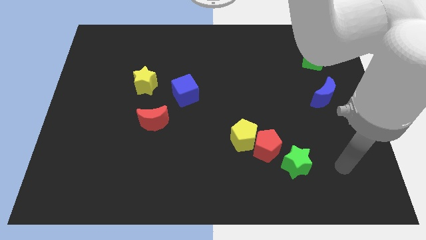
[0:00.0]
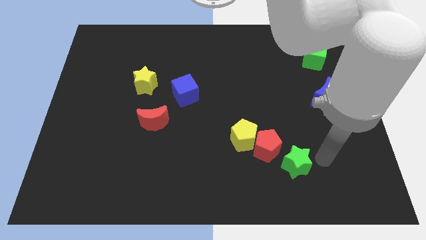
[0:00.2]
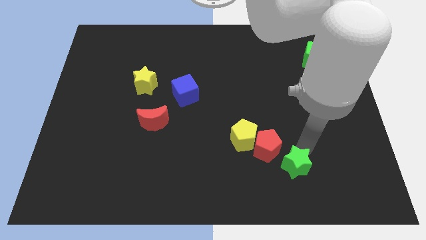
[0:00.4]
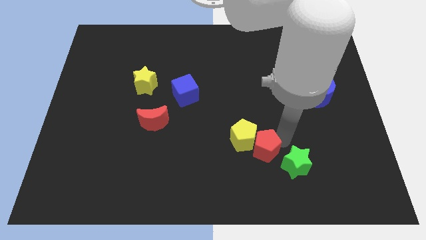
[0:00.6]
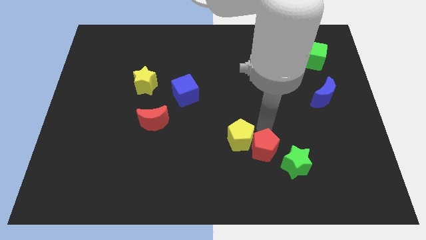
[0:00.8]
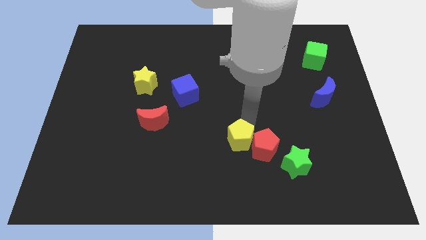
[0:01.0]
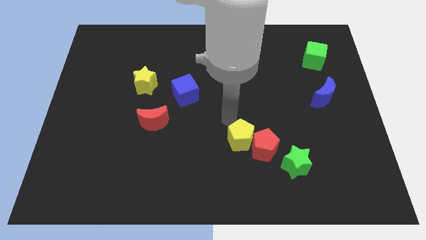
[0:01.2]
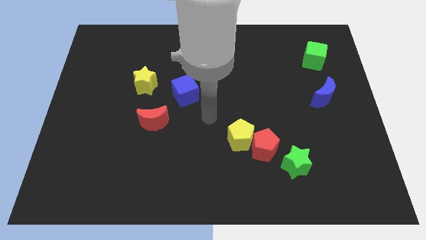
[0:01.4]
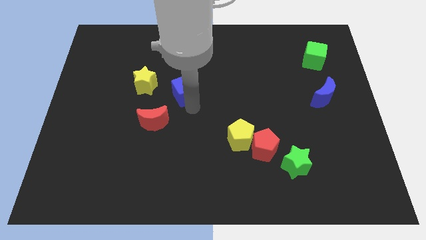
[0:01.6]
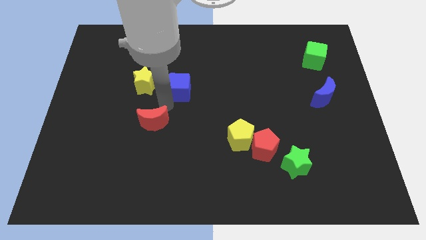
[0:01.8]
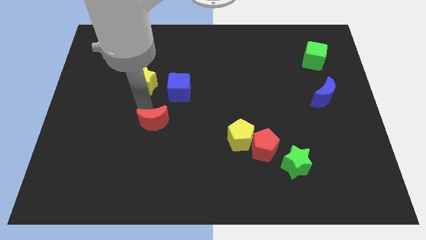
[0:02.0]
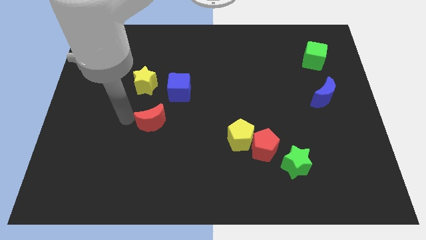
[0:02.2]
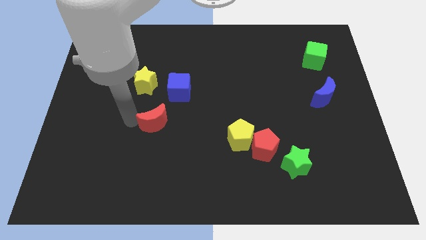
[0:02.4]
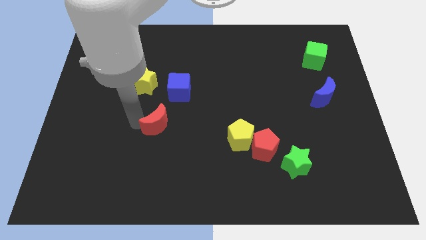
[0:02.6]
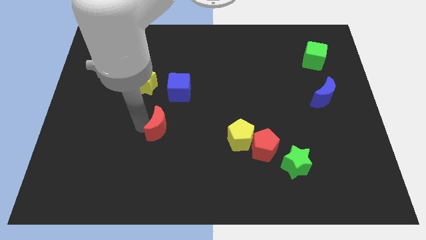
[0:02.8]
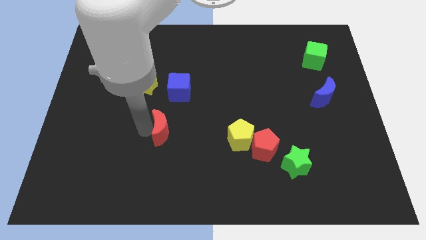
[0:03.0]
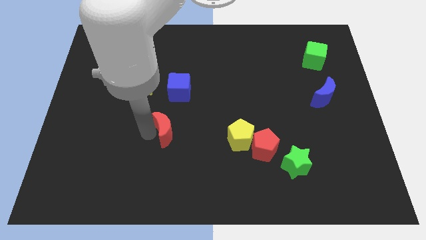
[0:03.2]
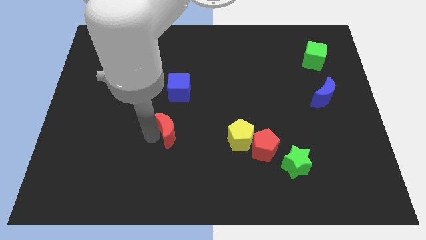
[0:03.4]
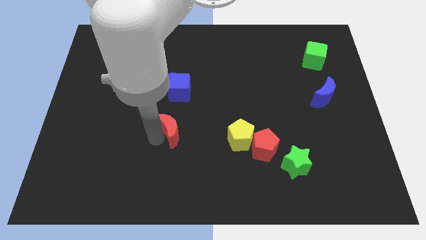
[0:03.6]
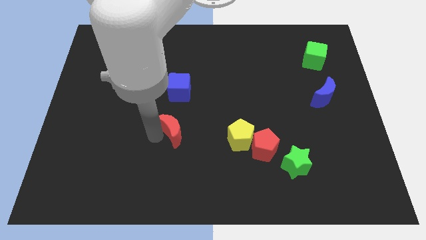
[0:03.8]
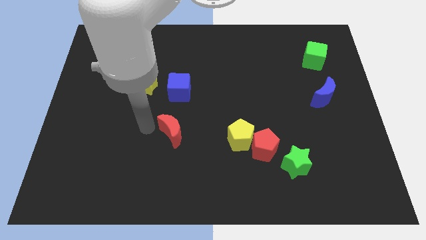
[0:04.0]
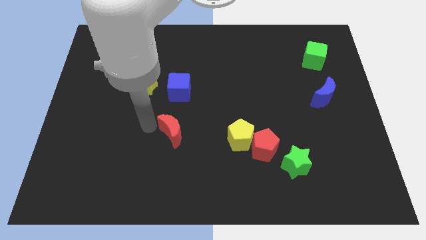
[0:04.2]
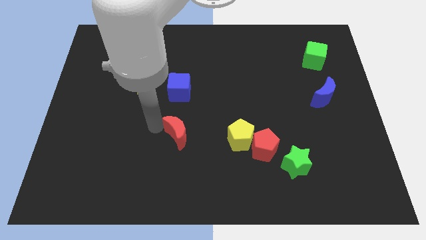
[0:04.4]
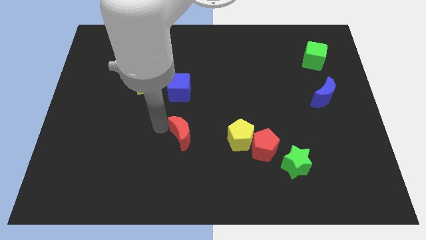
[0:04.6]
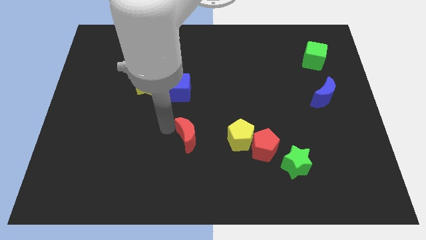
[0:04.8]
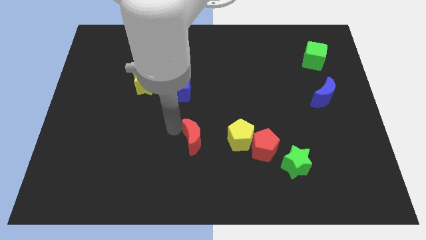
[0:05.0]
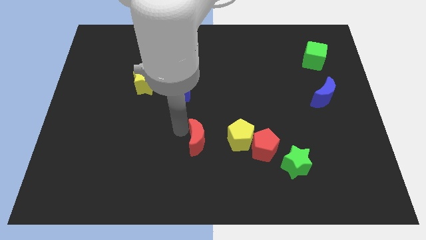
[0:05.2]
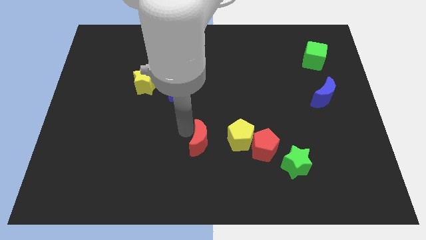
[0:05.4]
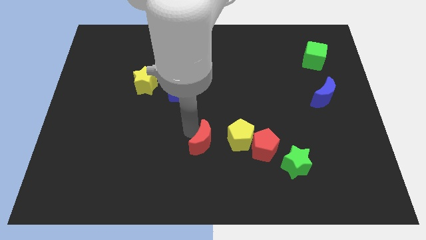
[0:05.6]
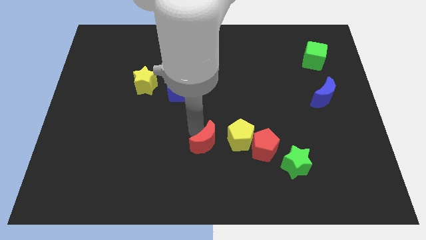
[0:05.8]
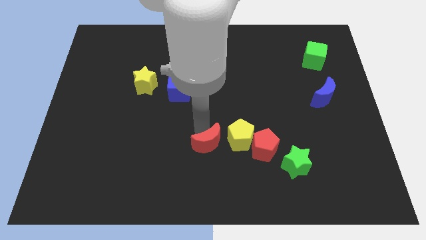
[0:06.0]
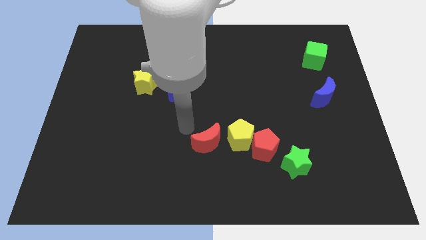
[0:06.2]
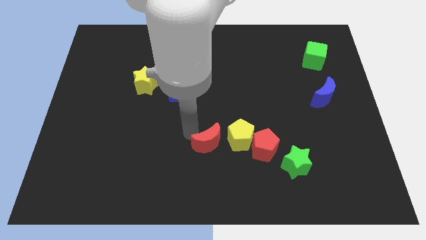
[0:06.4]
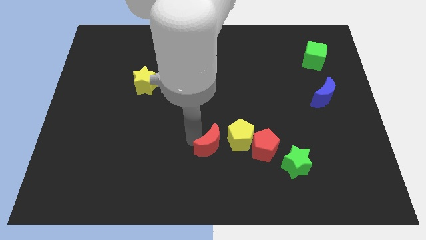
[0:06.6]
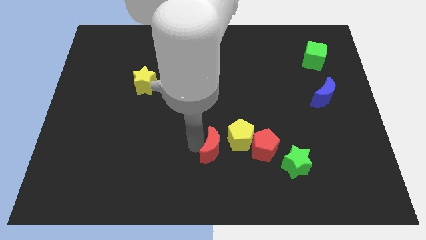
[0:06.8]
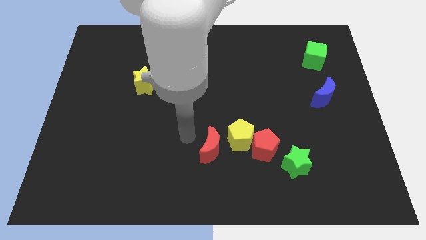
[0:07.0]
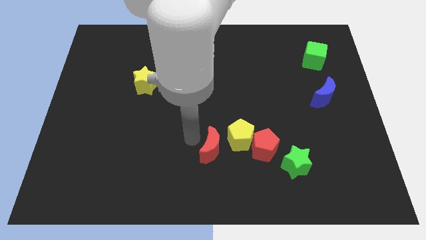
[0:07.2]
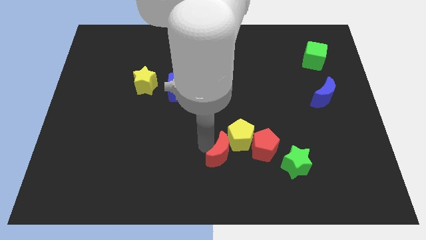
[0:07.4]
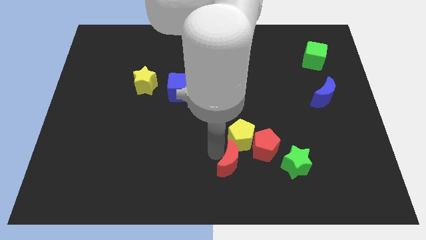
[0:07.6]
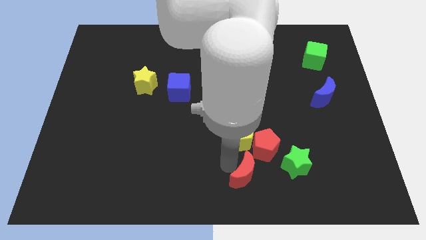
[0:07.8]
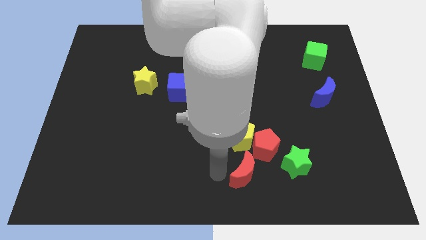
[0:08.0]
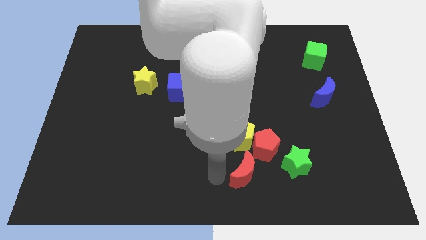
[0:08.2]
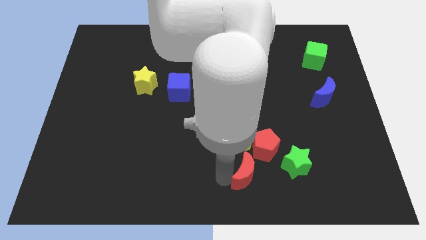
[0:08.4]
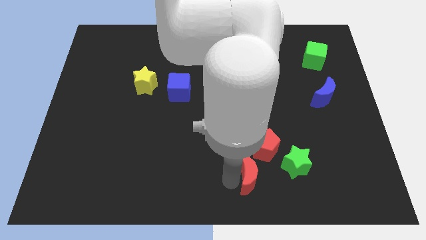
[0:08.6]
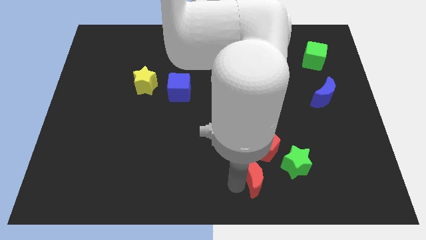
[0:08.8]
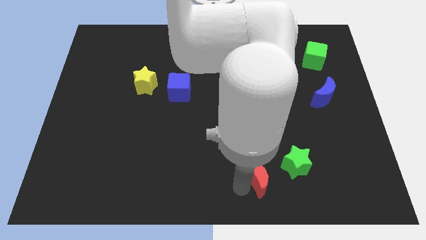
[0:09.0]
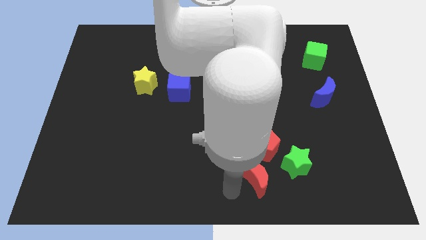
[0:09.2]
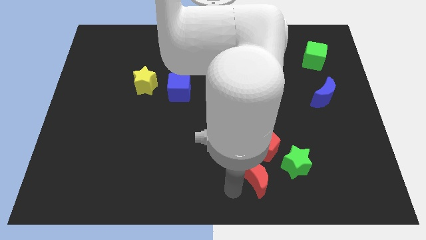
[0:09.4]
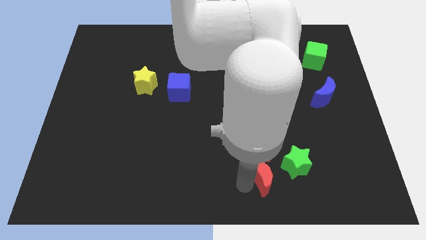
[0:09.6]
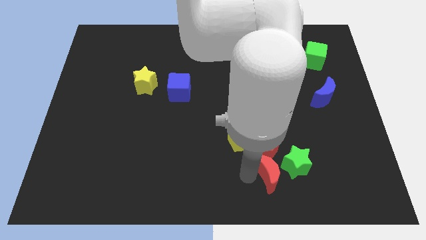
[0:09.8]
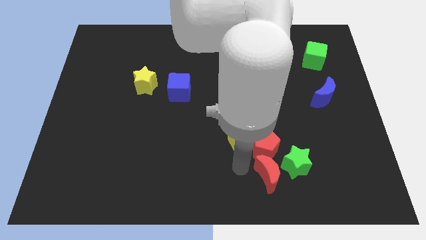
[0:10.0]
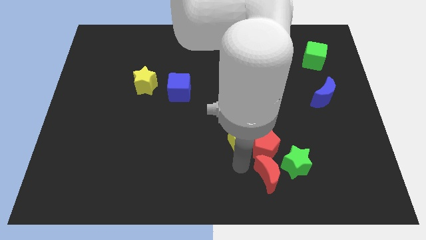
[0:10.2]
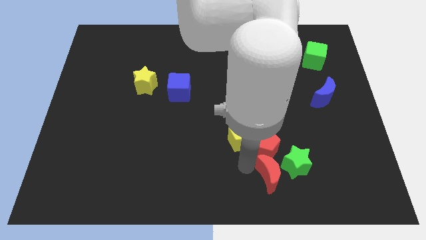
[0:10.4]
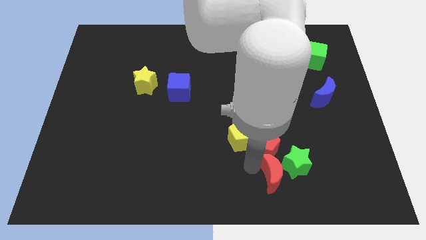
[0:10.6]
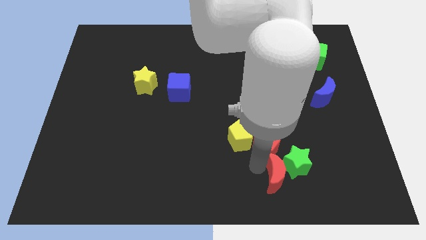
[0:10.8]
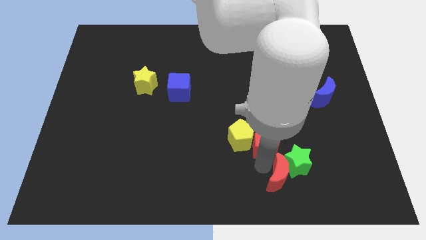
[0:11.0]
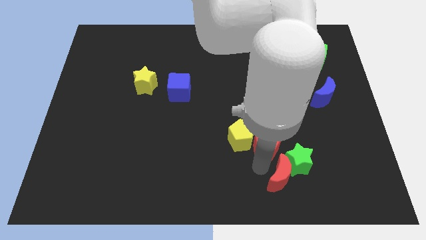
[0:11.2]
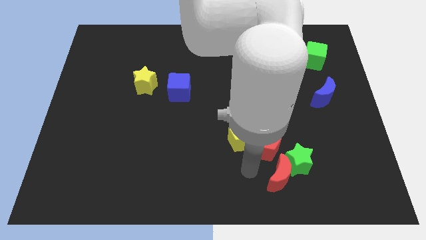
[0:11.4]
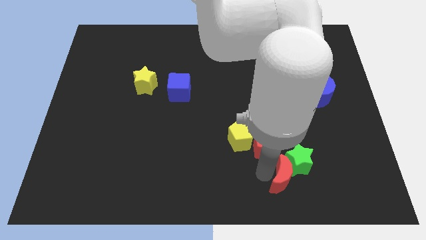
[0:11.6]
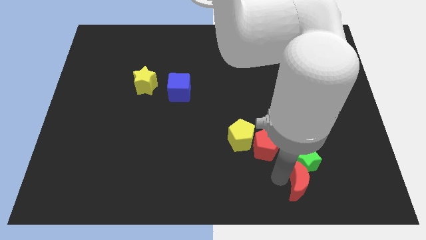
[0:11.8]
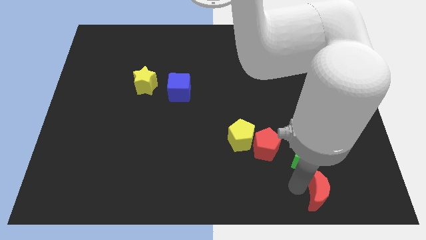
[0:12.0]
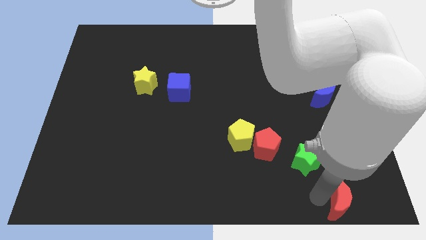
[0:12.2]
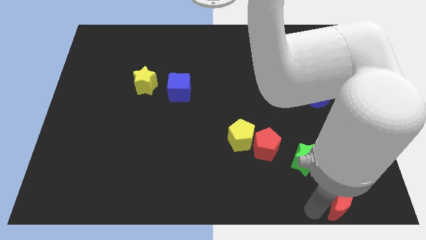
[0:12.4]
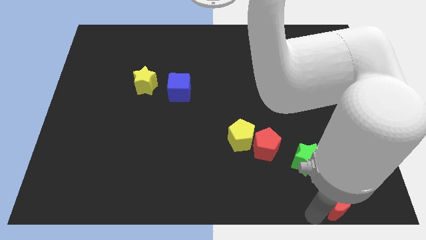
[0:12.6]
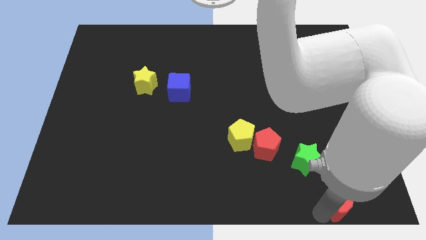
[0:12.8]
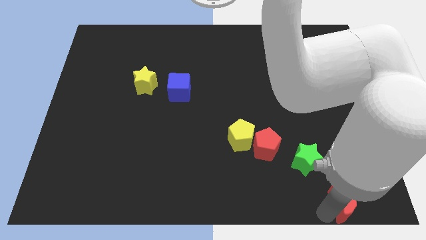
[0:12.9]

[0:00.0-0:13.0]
put the red moon to the bottom right of the board
